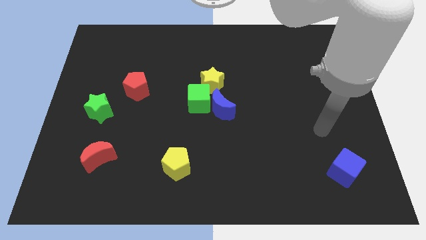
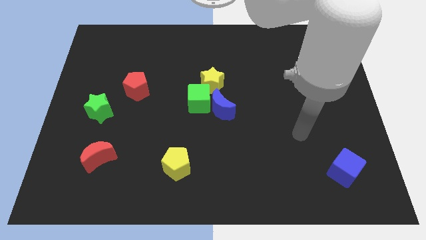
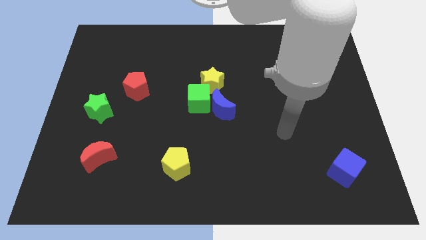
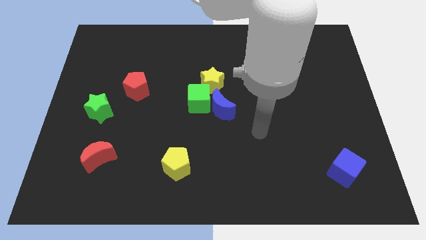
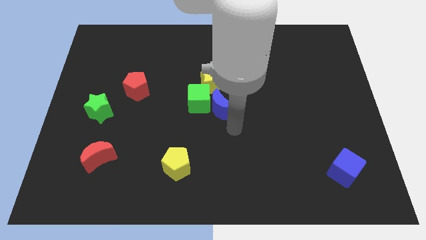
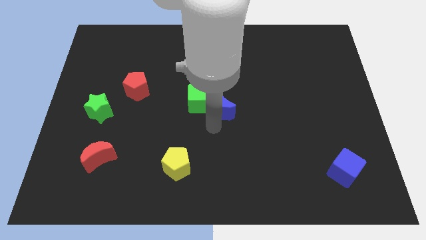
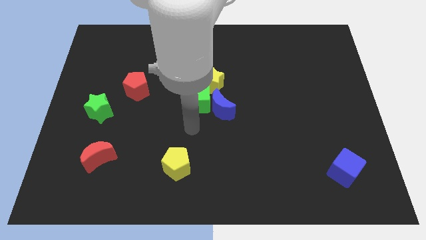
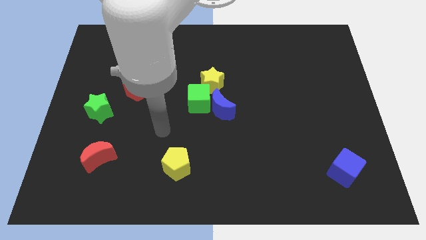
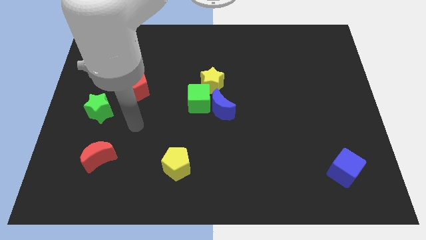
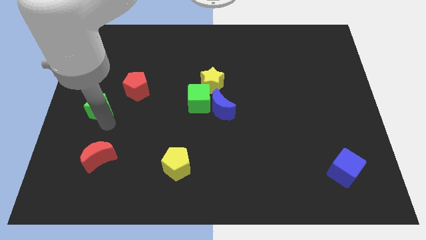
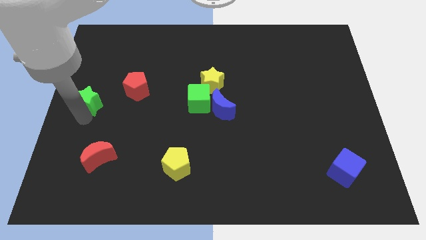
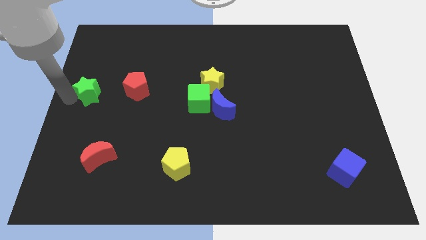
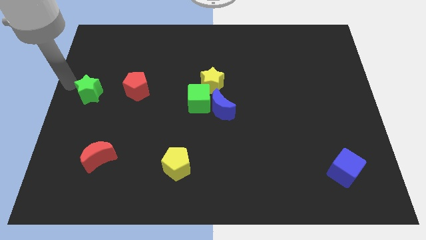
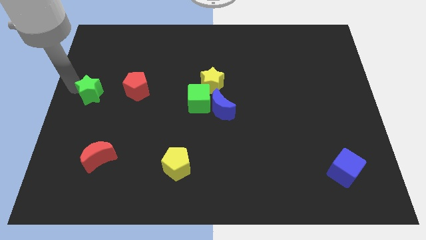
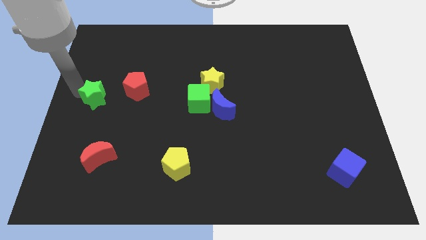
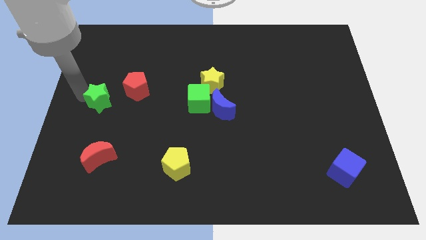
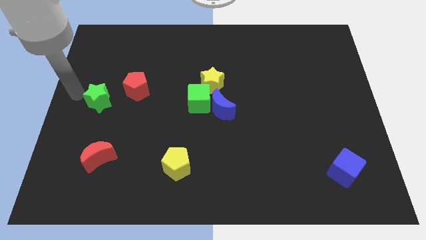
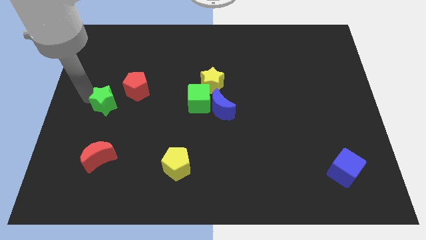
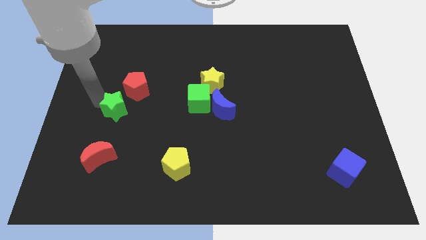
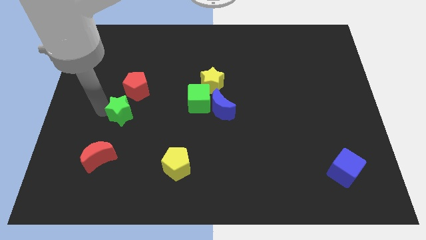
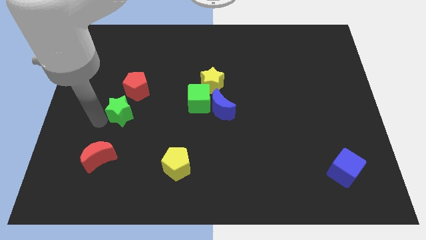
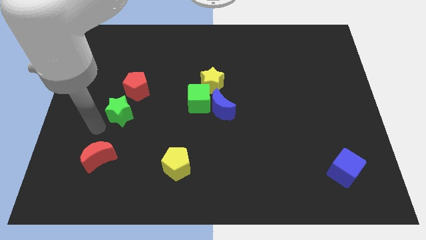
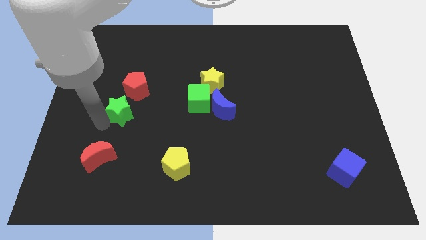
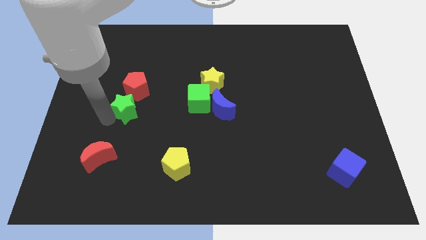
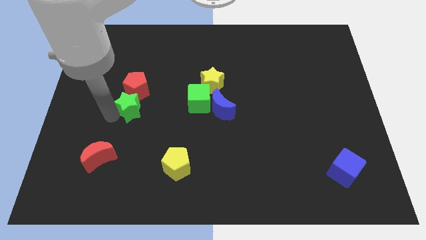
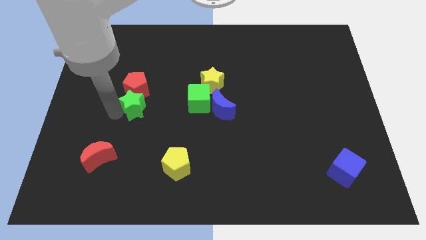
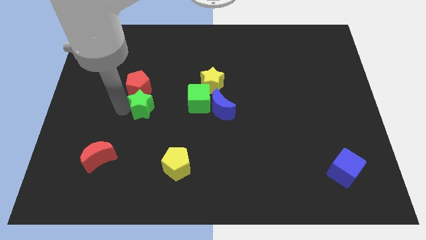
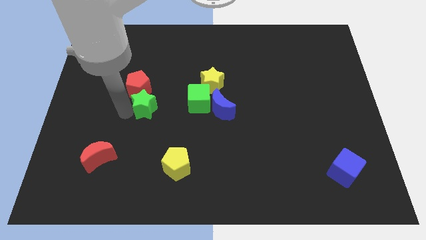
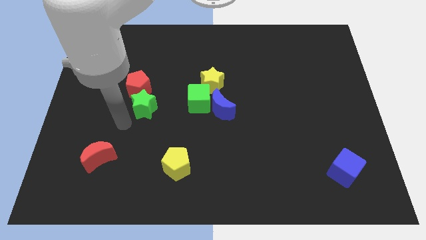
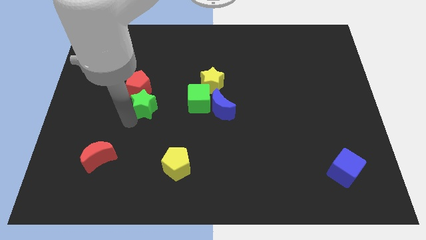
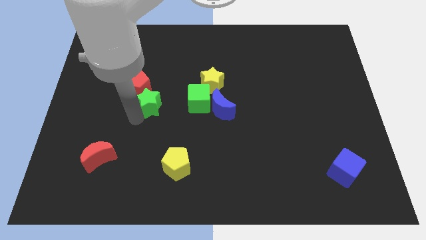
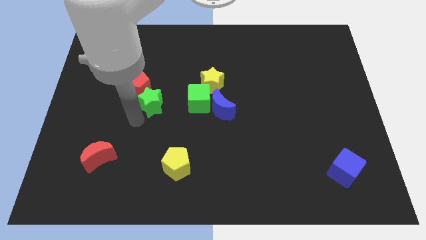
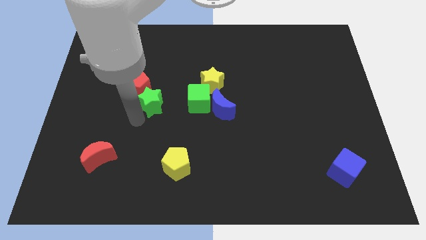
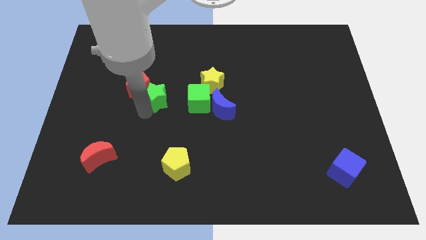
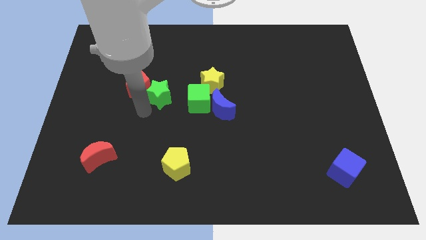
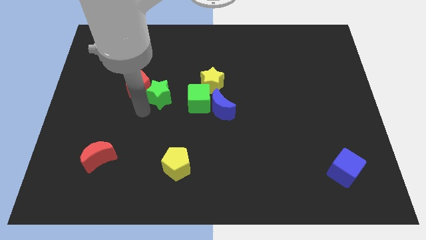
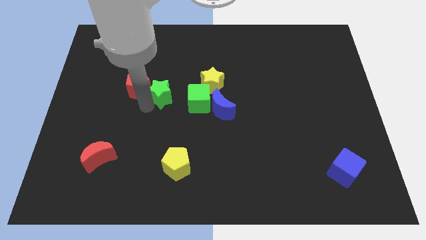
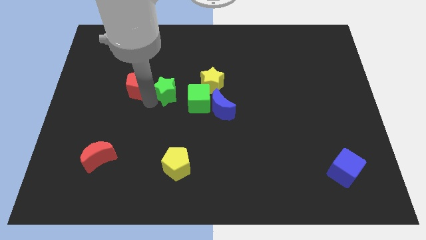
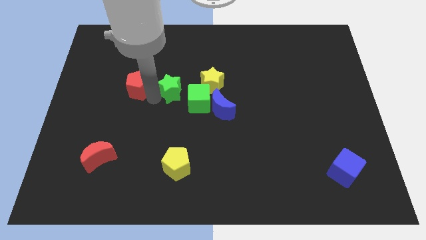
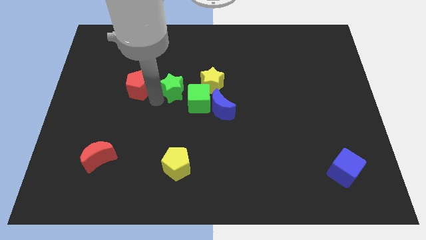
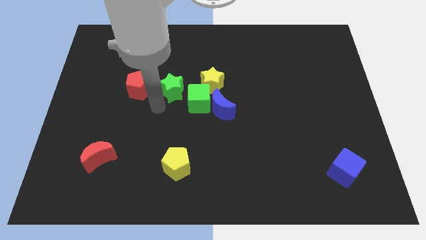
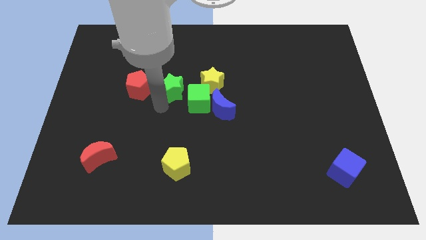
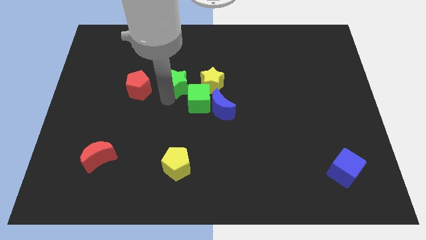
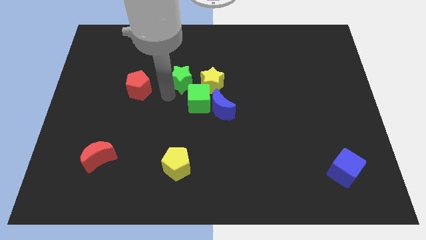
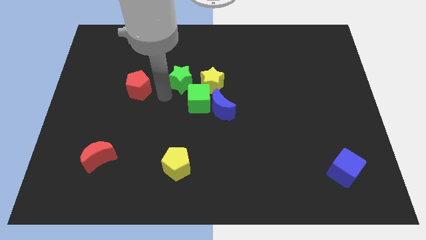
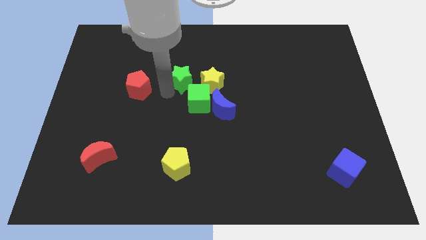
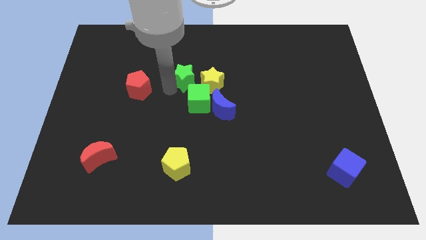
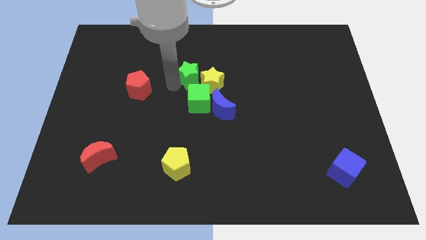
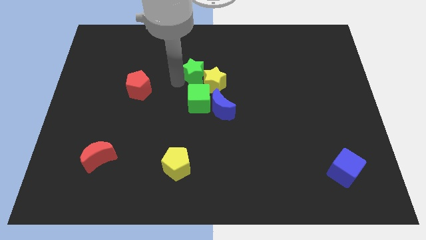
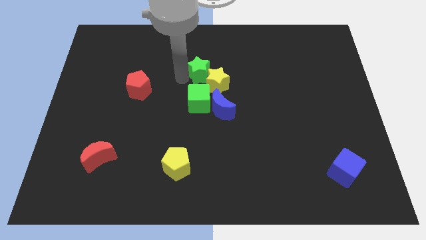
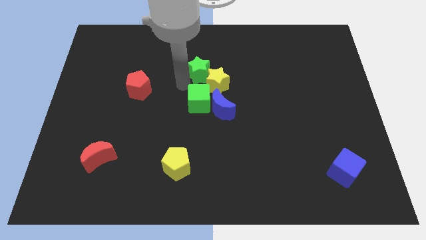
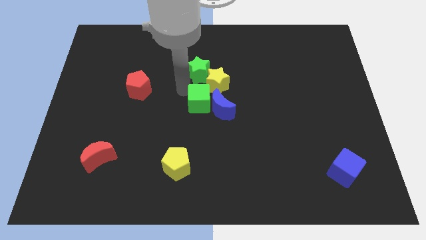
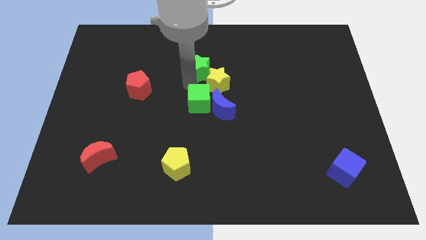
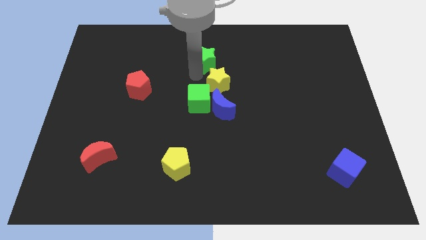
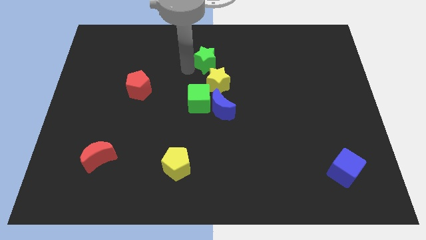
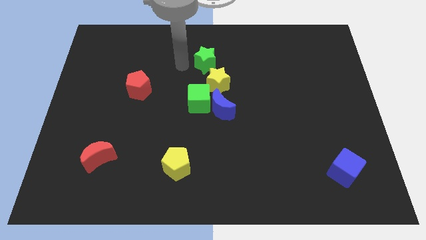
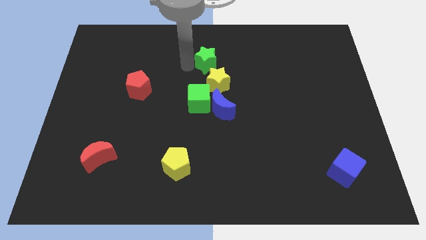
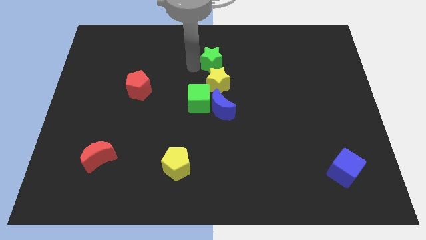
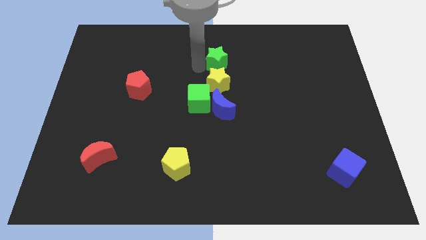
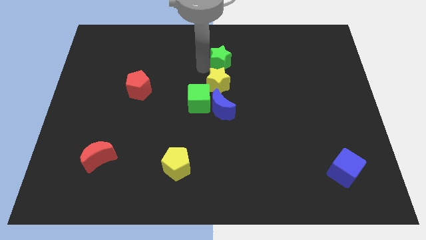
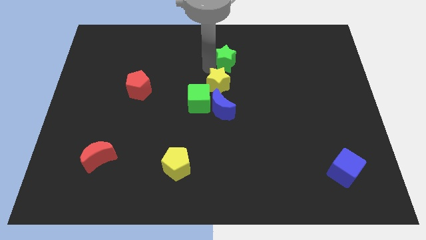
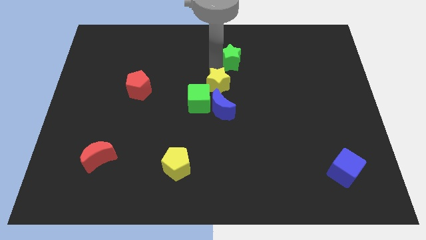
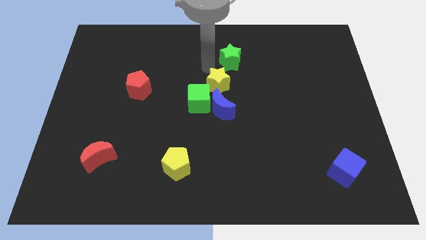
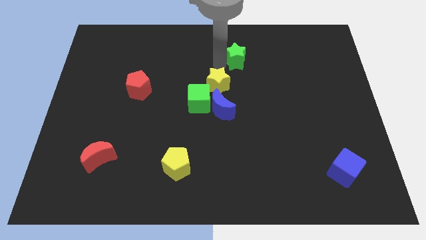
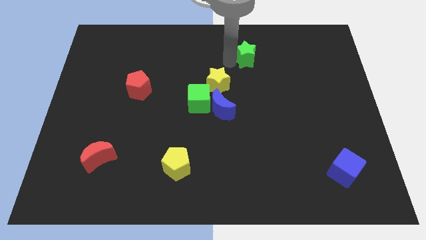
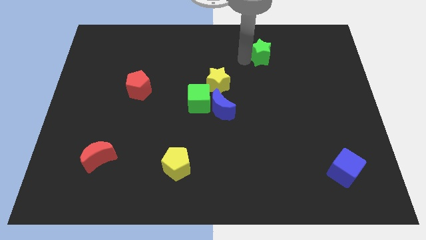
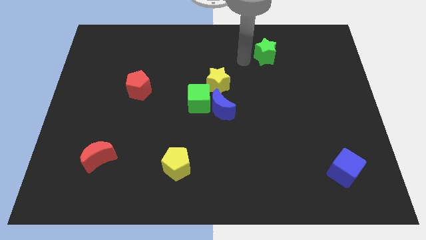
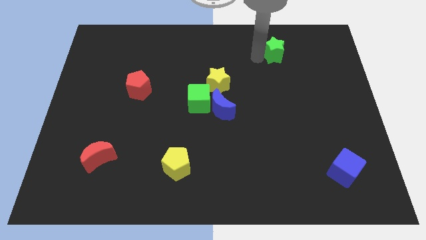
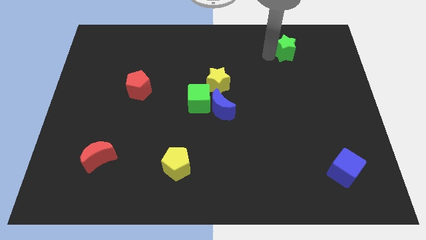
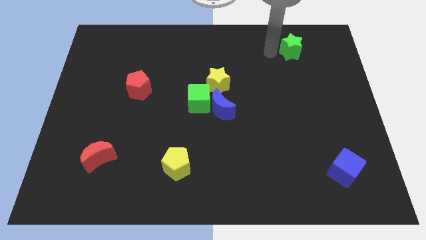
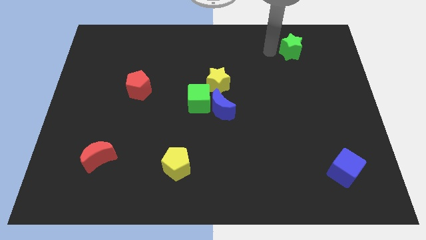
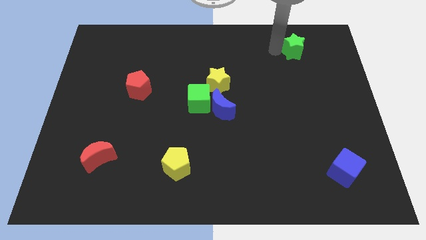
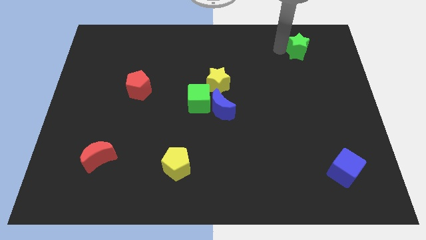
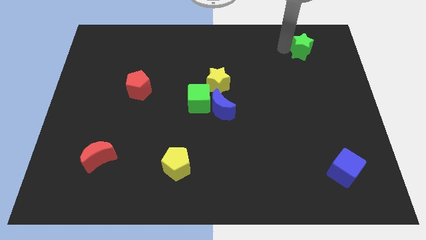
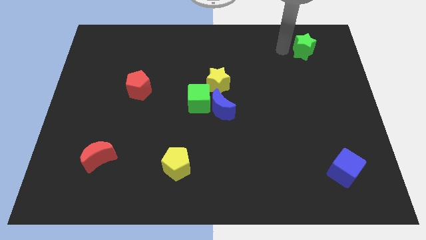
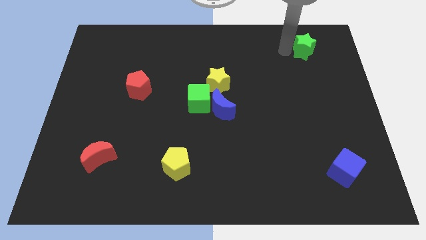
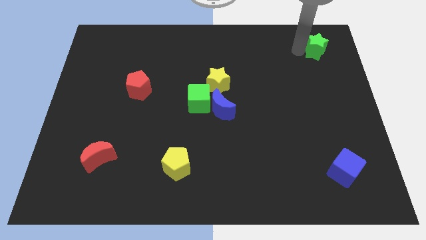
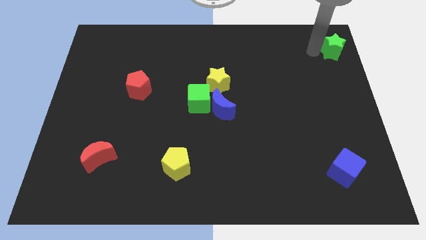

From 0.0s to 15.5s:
move the green star to the upper right corner
